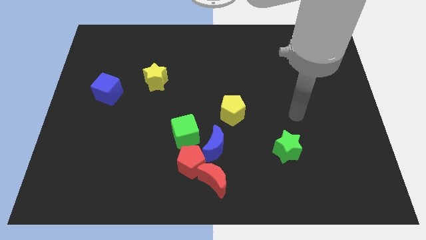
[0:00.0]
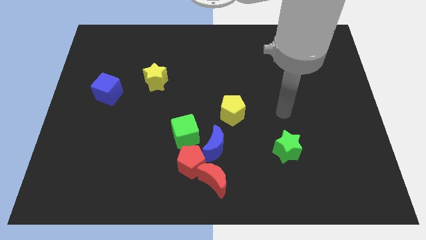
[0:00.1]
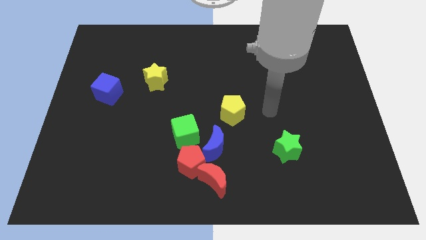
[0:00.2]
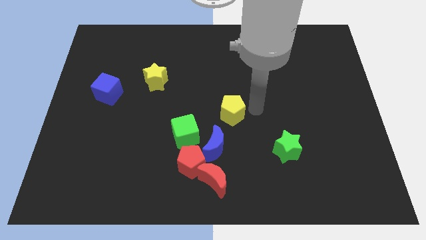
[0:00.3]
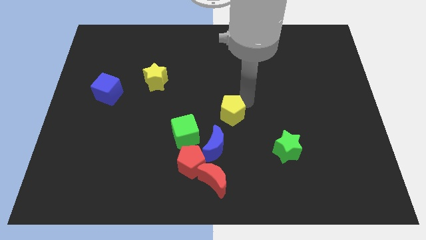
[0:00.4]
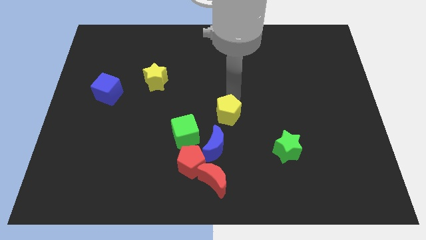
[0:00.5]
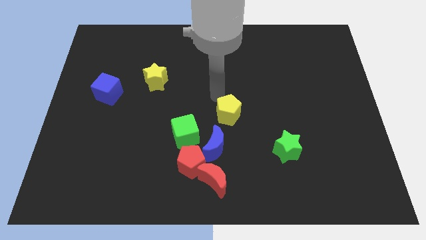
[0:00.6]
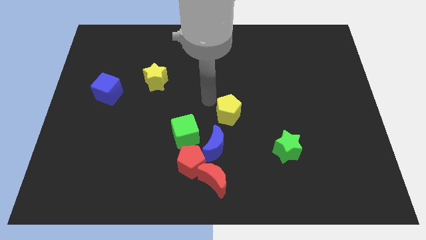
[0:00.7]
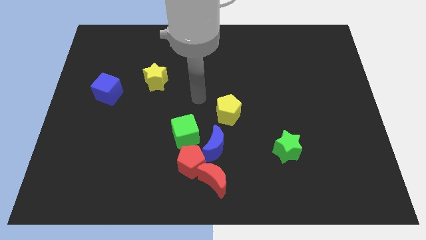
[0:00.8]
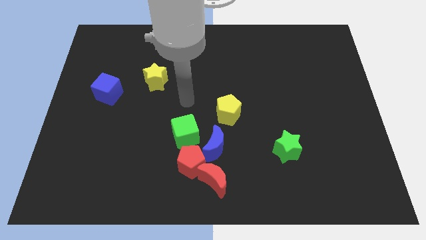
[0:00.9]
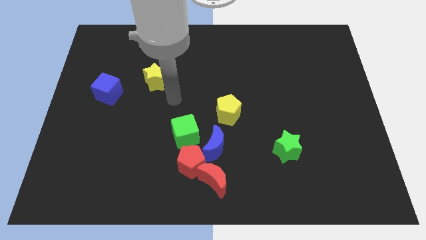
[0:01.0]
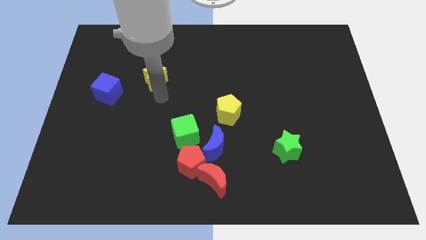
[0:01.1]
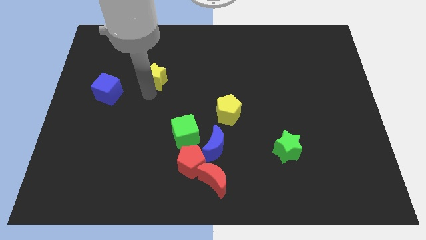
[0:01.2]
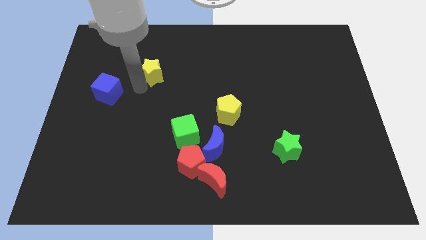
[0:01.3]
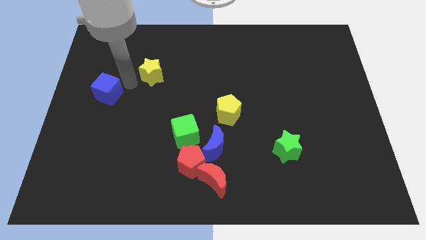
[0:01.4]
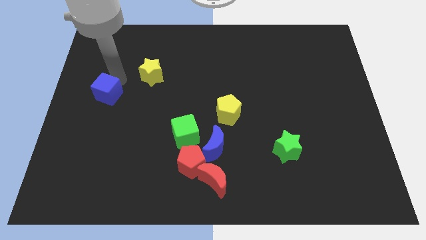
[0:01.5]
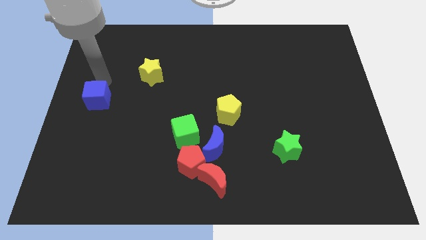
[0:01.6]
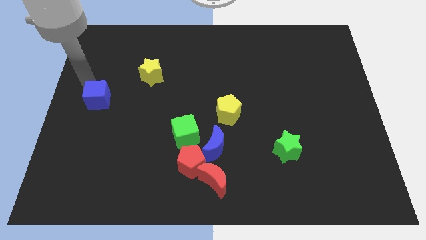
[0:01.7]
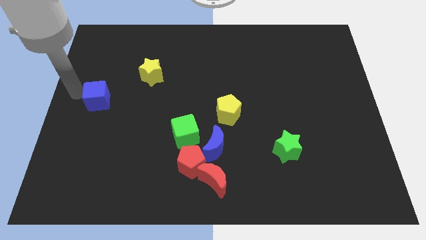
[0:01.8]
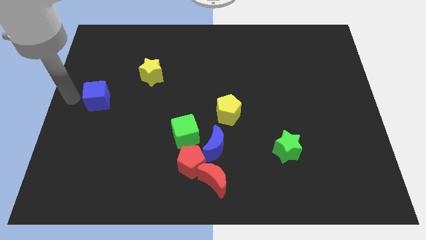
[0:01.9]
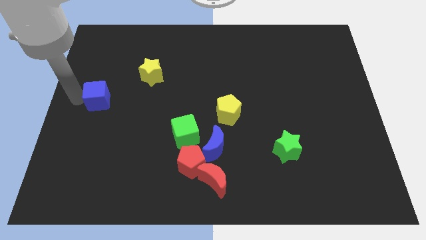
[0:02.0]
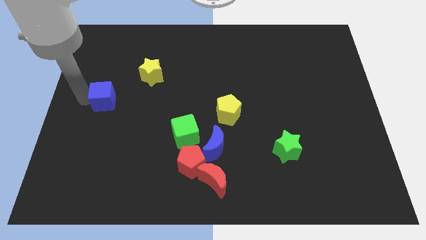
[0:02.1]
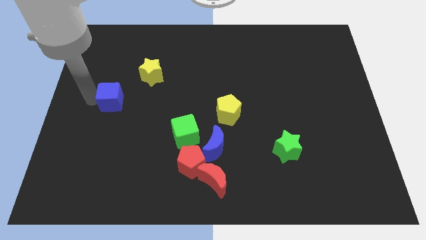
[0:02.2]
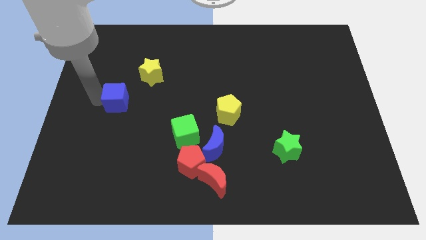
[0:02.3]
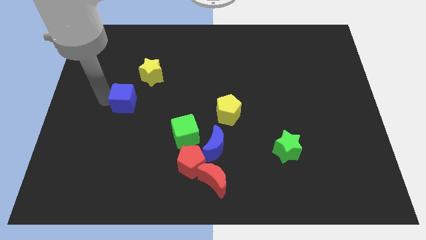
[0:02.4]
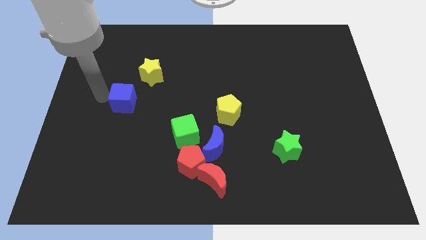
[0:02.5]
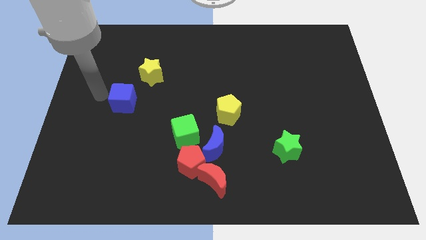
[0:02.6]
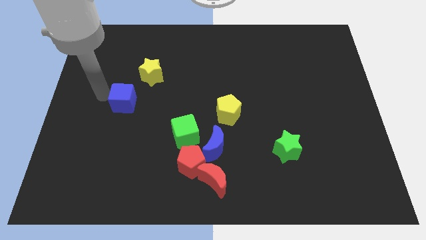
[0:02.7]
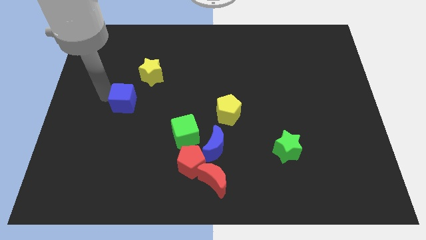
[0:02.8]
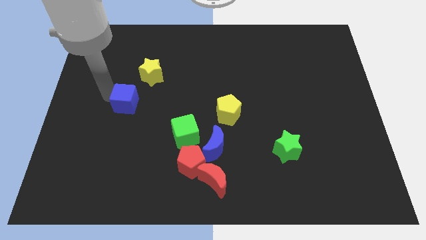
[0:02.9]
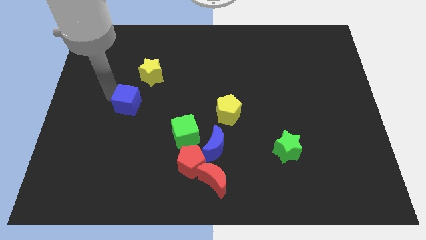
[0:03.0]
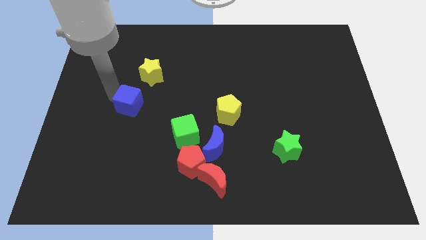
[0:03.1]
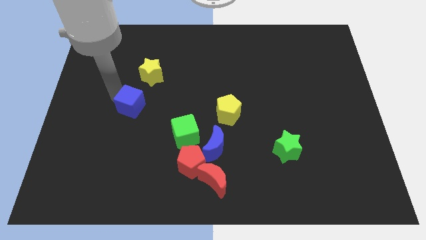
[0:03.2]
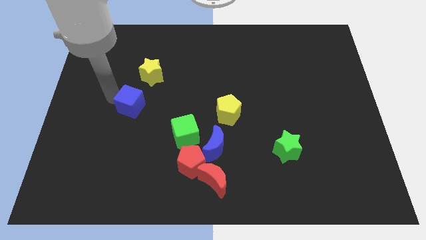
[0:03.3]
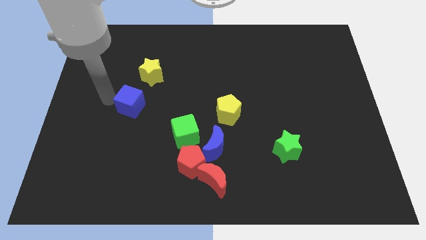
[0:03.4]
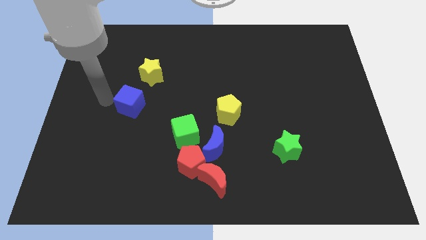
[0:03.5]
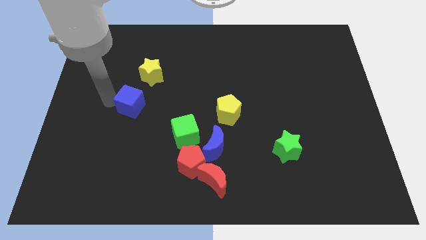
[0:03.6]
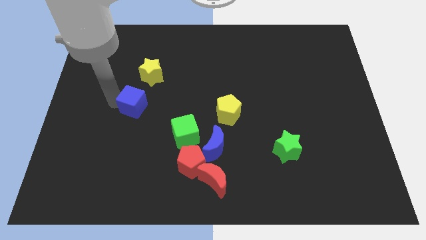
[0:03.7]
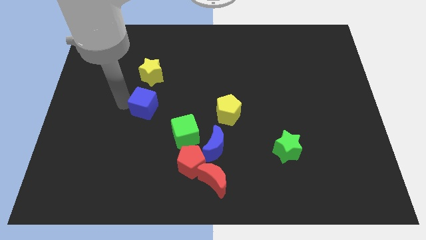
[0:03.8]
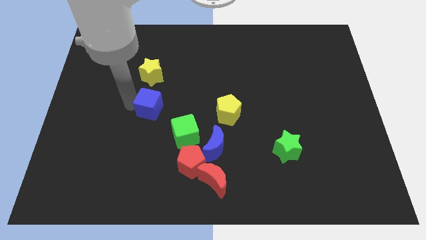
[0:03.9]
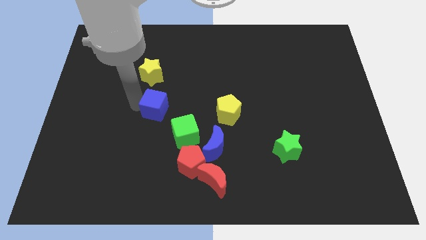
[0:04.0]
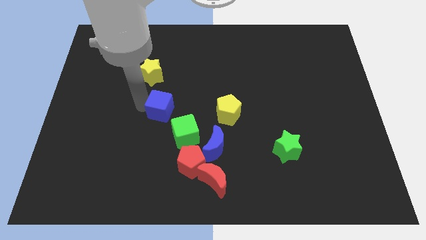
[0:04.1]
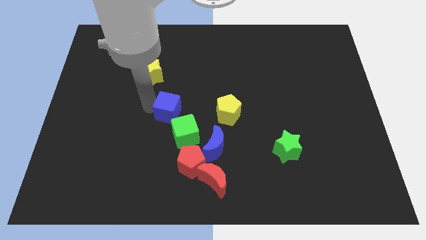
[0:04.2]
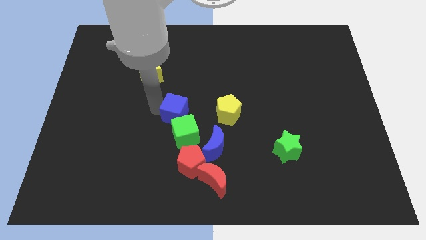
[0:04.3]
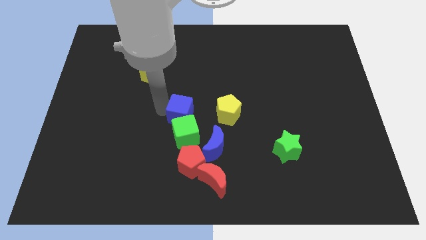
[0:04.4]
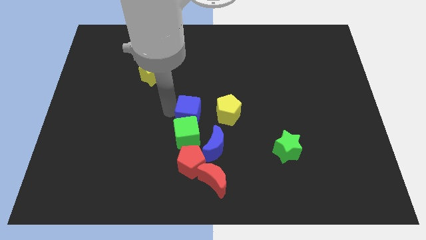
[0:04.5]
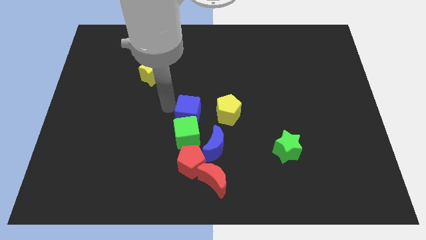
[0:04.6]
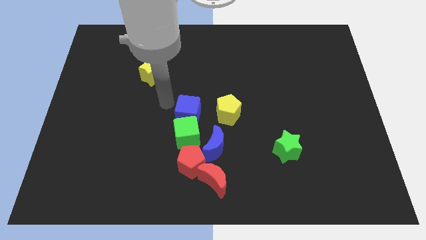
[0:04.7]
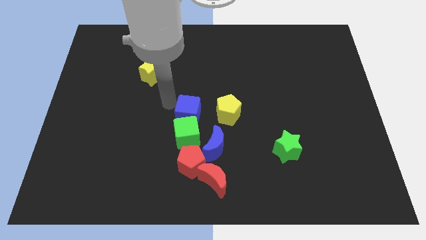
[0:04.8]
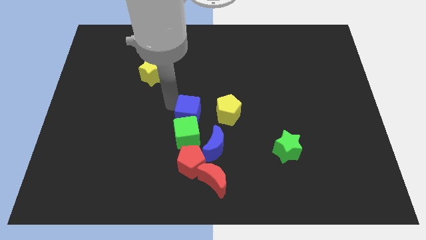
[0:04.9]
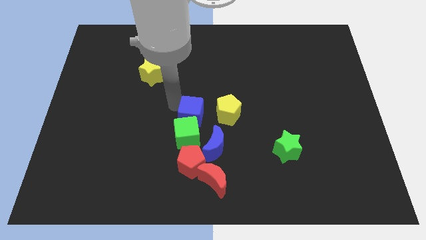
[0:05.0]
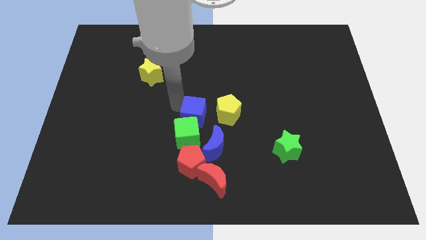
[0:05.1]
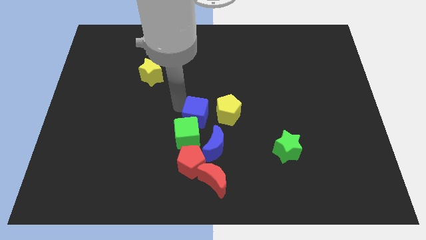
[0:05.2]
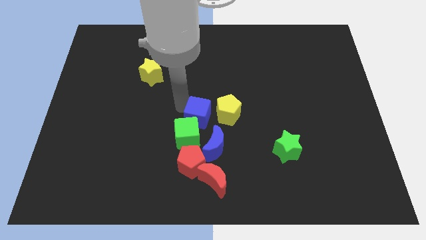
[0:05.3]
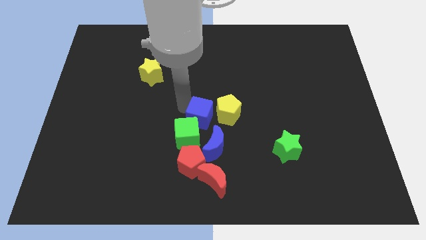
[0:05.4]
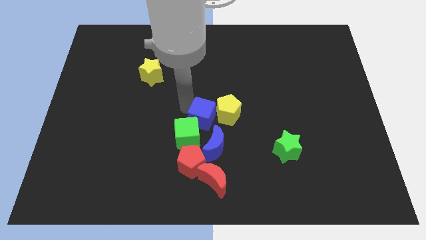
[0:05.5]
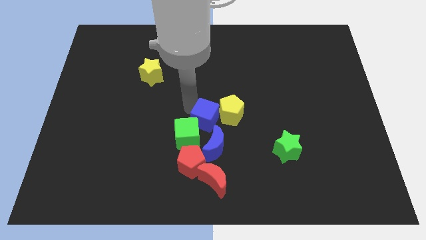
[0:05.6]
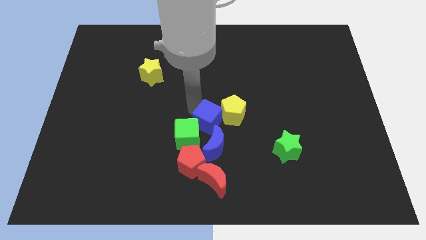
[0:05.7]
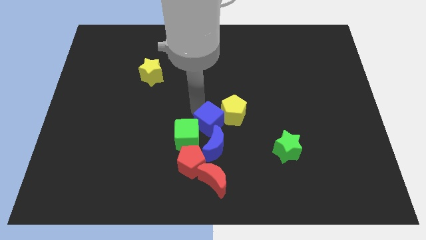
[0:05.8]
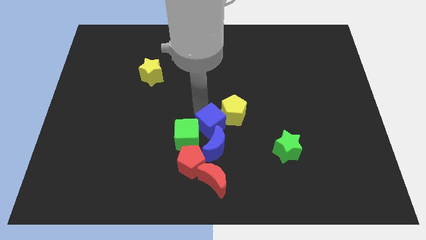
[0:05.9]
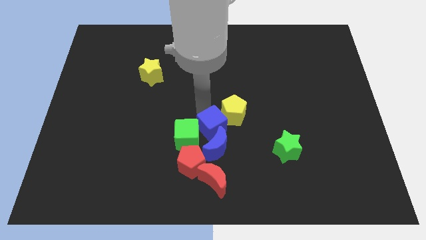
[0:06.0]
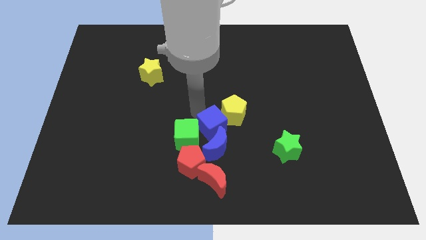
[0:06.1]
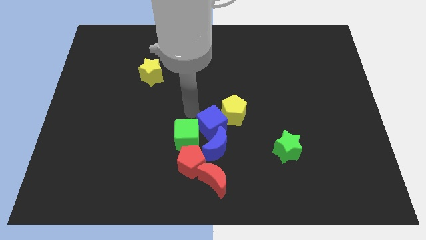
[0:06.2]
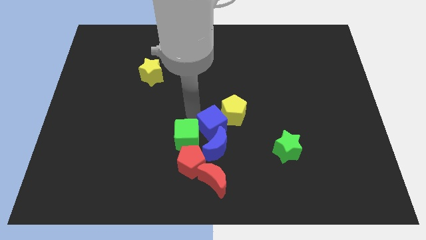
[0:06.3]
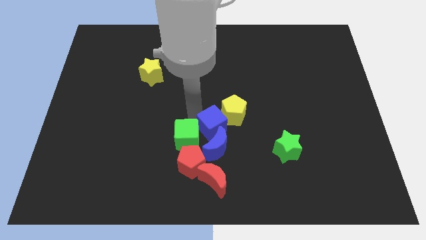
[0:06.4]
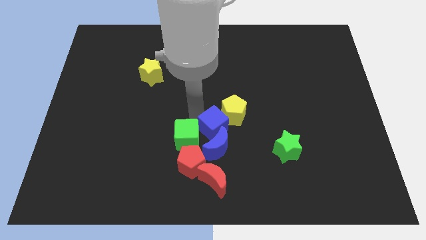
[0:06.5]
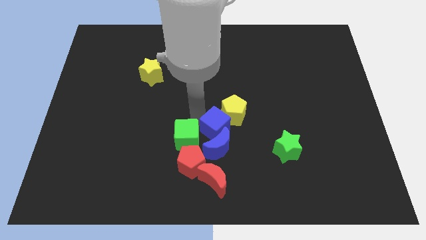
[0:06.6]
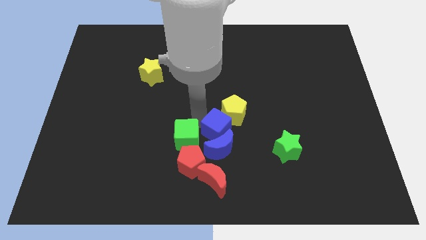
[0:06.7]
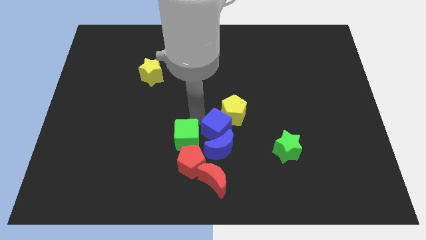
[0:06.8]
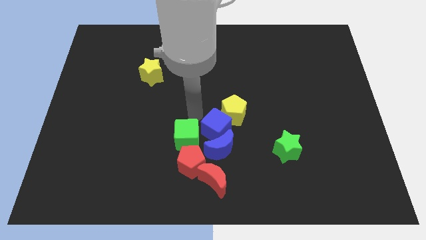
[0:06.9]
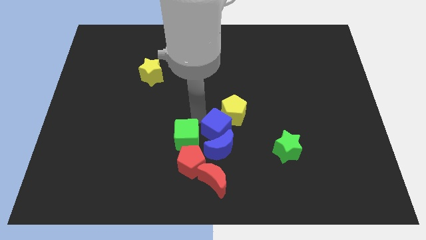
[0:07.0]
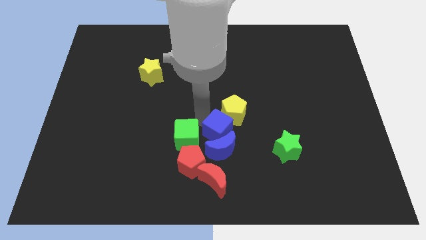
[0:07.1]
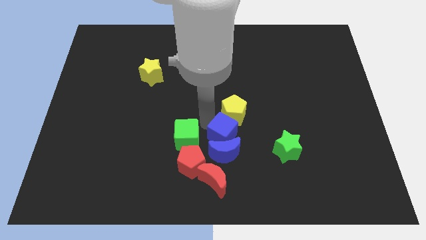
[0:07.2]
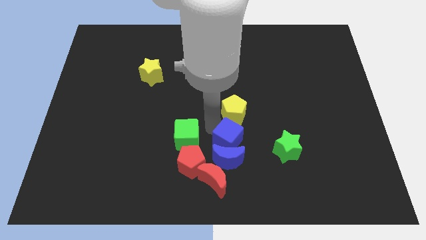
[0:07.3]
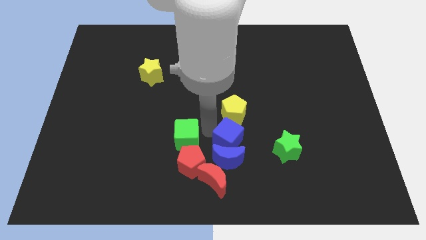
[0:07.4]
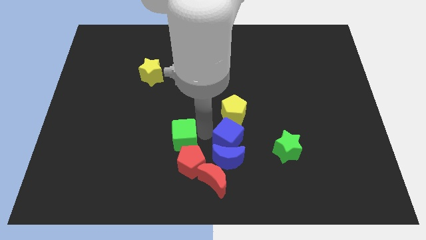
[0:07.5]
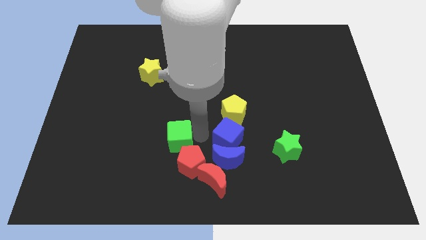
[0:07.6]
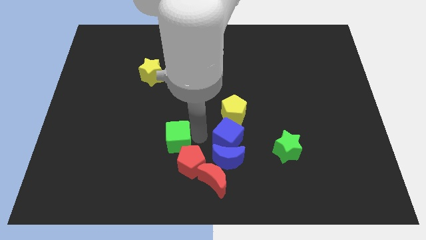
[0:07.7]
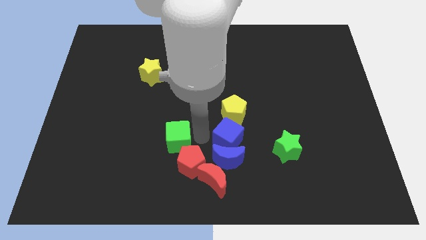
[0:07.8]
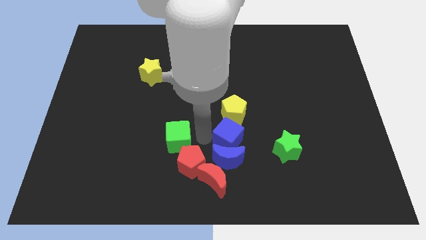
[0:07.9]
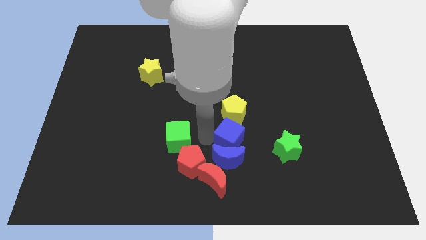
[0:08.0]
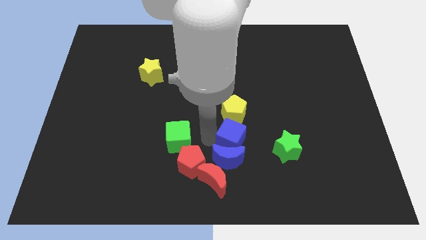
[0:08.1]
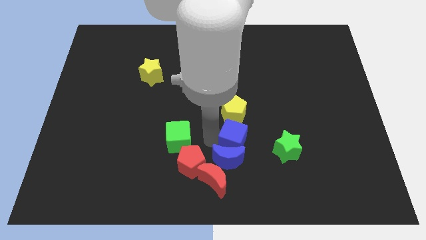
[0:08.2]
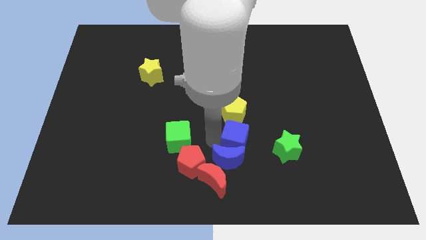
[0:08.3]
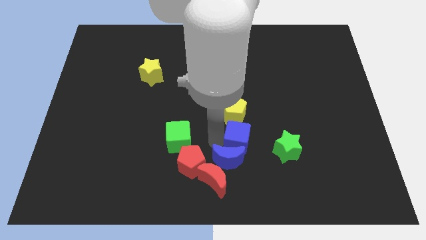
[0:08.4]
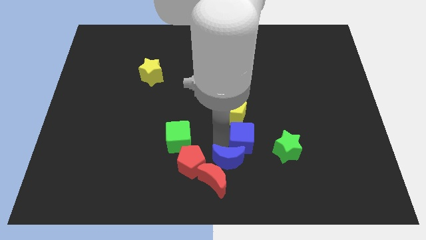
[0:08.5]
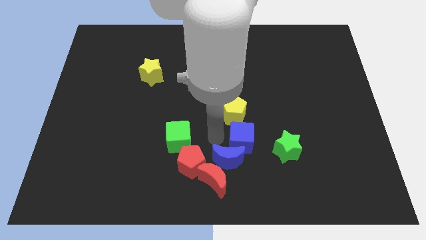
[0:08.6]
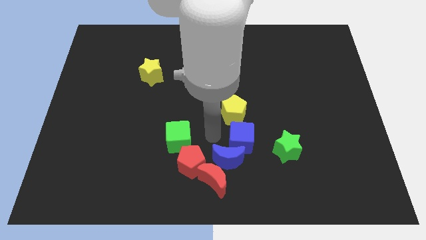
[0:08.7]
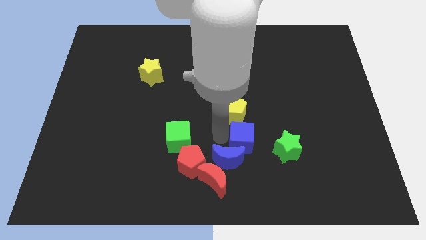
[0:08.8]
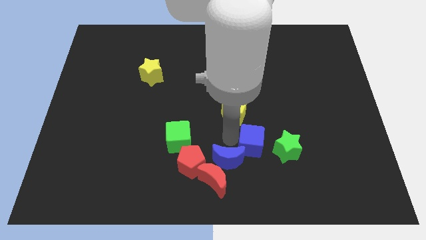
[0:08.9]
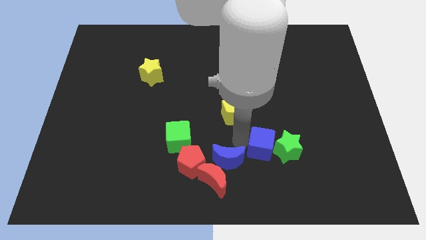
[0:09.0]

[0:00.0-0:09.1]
move the blue cube close to the green star
